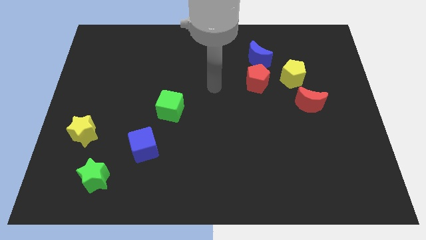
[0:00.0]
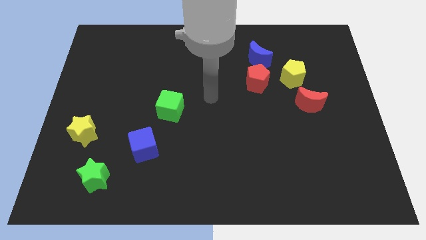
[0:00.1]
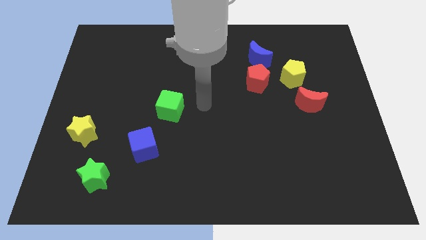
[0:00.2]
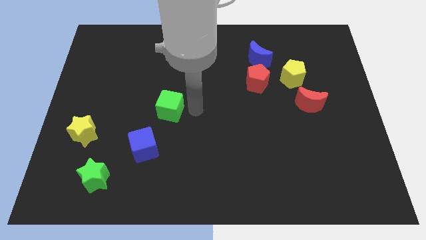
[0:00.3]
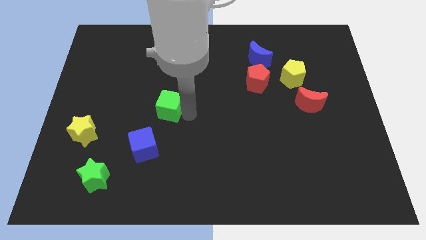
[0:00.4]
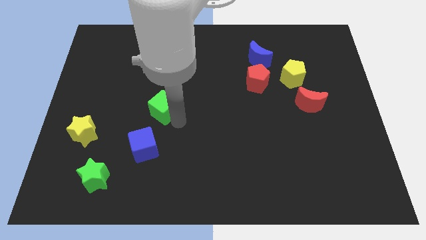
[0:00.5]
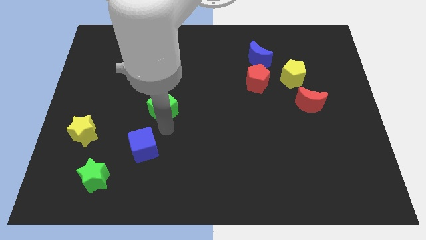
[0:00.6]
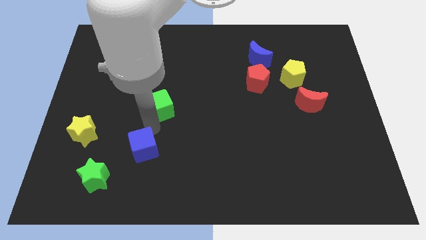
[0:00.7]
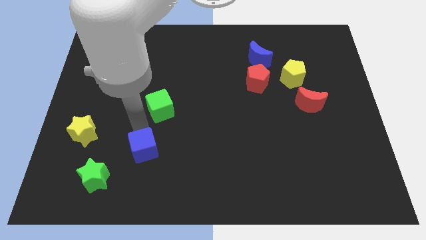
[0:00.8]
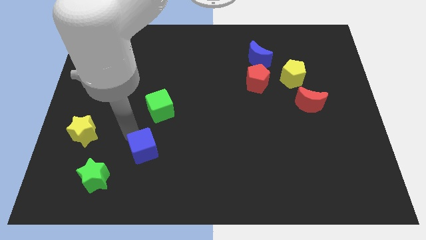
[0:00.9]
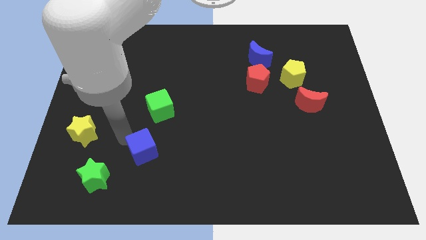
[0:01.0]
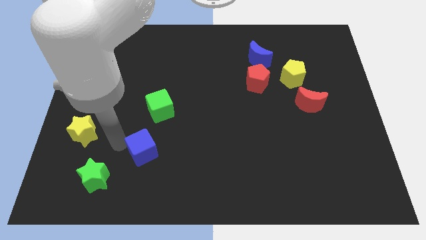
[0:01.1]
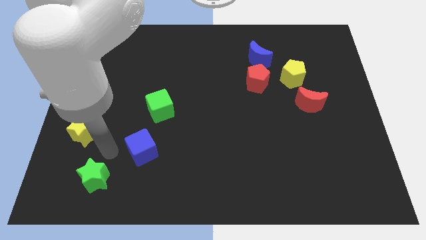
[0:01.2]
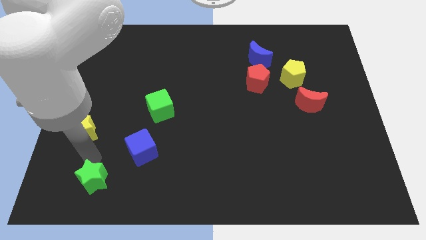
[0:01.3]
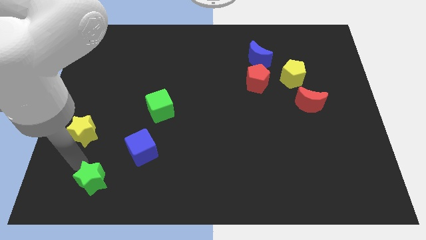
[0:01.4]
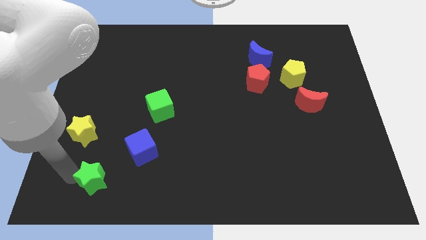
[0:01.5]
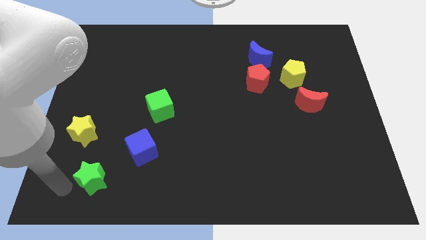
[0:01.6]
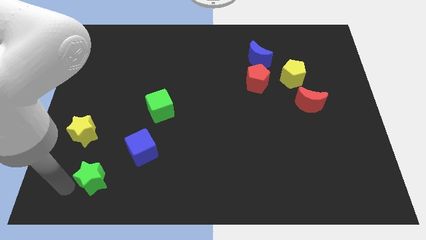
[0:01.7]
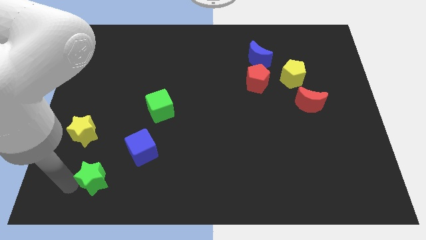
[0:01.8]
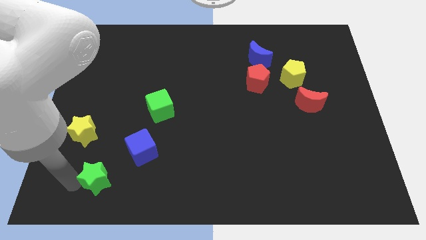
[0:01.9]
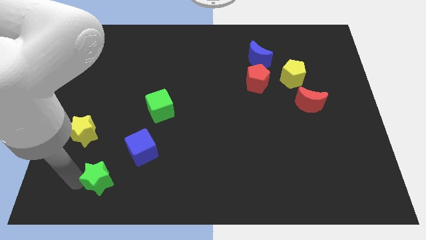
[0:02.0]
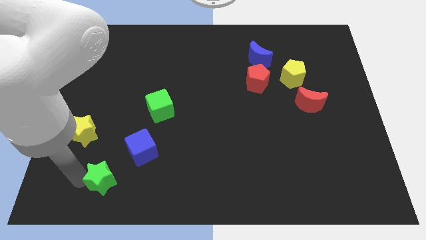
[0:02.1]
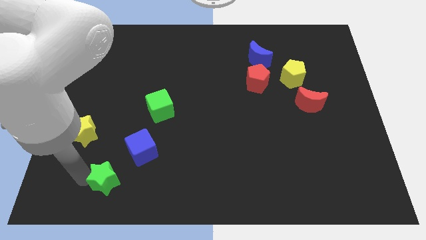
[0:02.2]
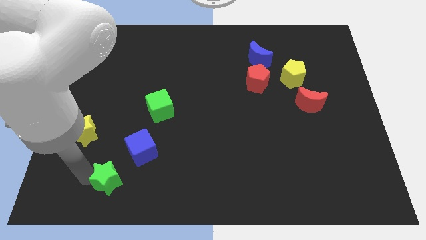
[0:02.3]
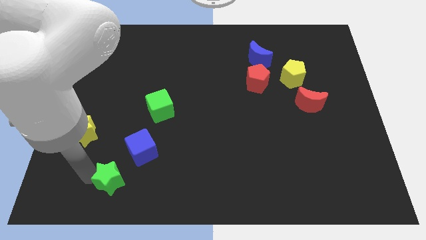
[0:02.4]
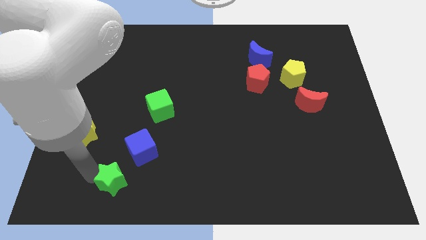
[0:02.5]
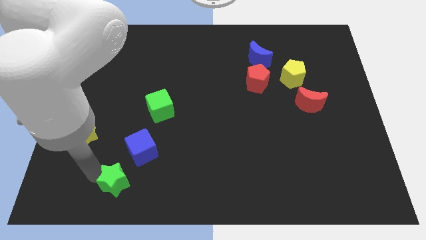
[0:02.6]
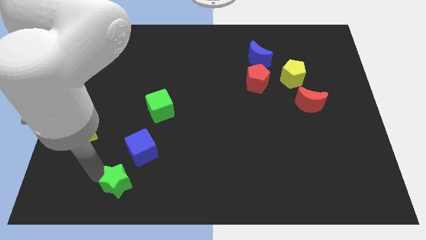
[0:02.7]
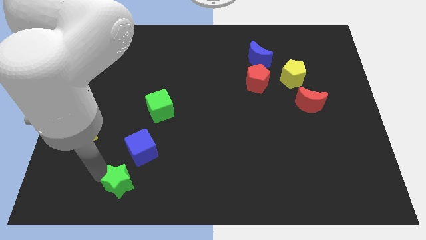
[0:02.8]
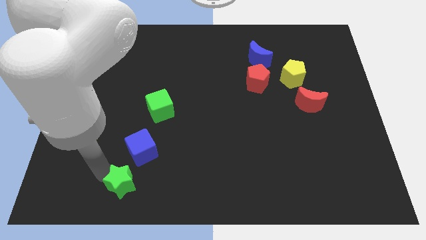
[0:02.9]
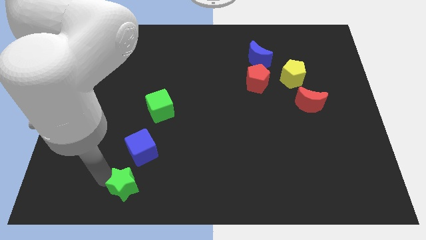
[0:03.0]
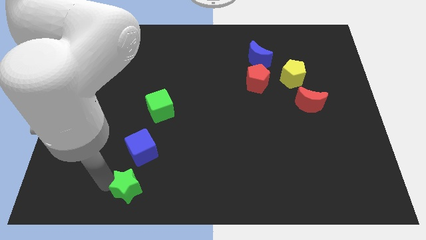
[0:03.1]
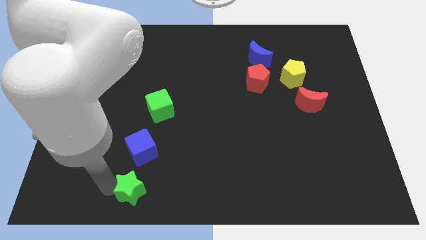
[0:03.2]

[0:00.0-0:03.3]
slightly push the green star to the right

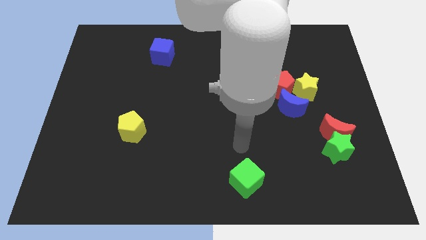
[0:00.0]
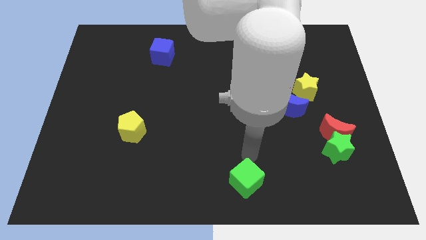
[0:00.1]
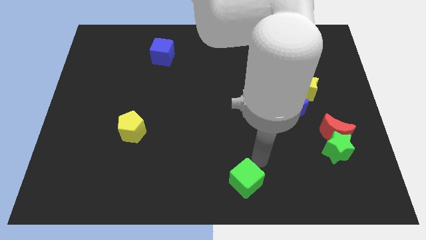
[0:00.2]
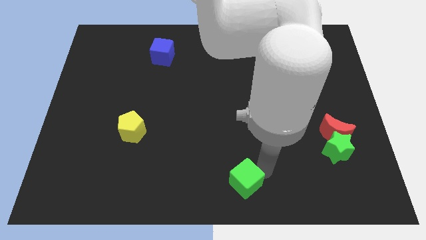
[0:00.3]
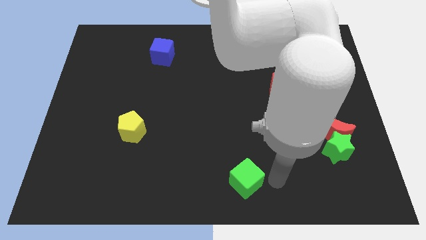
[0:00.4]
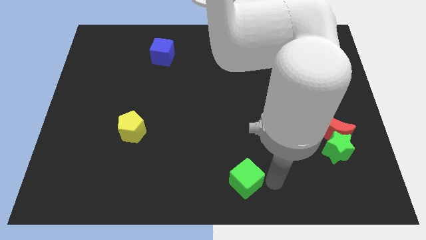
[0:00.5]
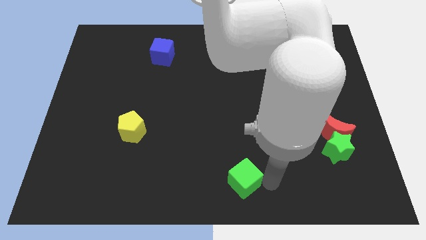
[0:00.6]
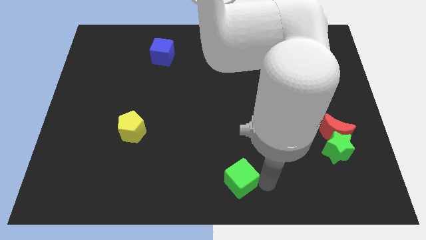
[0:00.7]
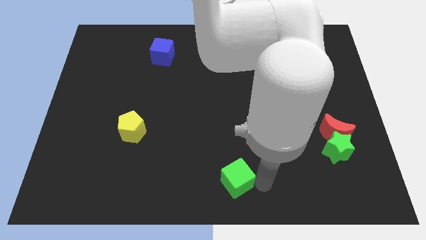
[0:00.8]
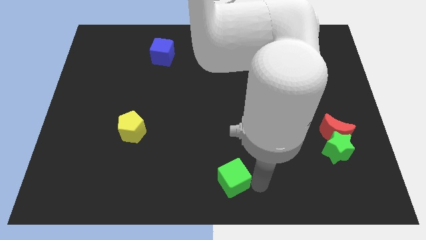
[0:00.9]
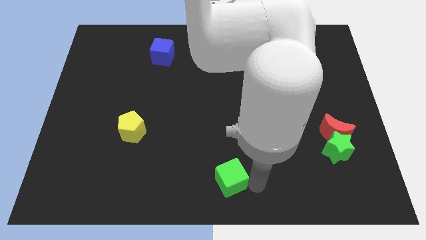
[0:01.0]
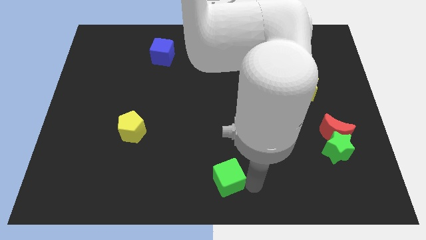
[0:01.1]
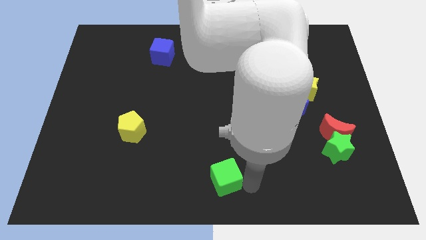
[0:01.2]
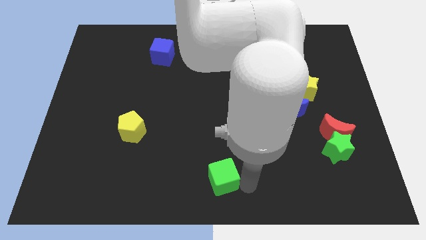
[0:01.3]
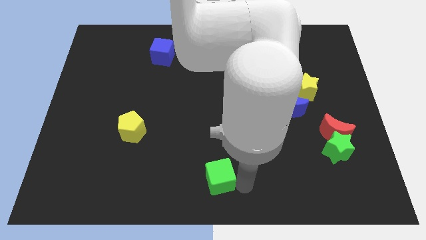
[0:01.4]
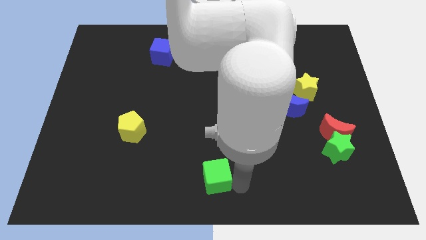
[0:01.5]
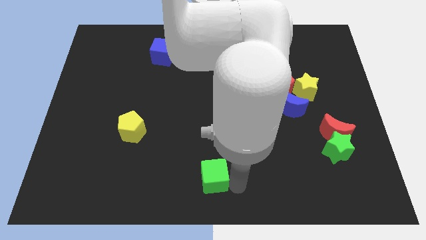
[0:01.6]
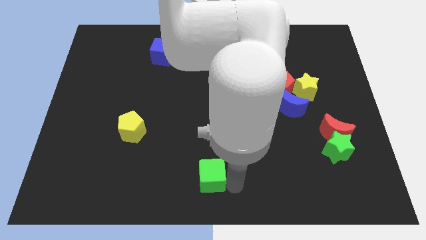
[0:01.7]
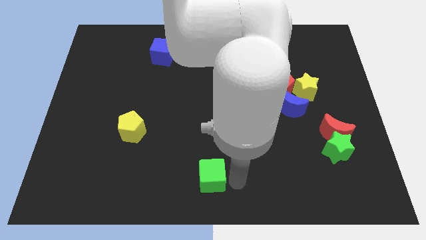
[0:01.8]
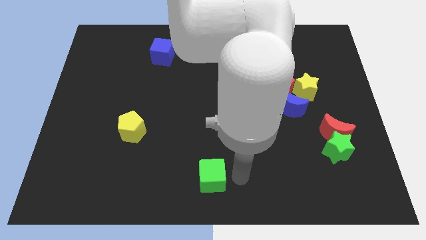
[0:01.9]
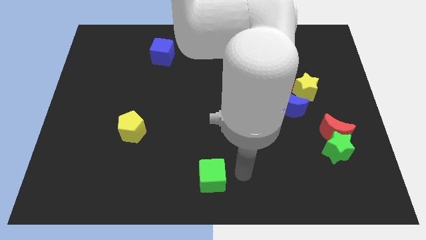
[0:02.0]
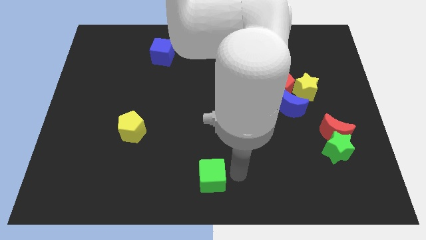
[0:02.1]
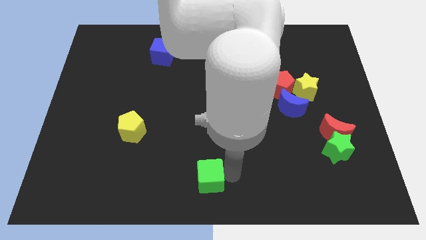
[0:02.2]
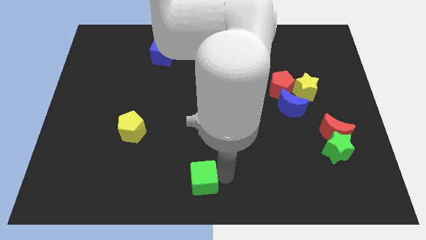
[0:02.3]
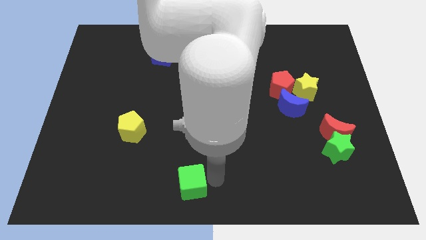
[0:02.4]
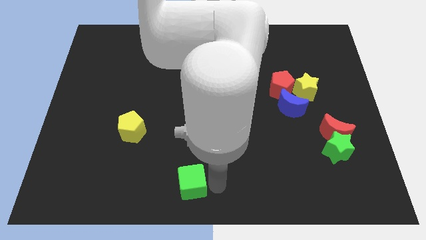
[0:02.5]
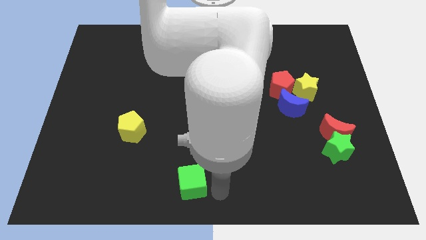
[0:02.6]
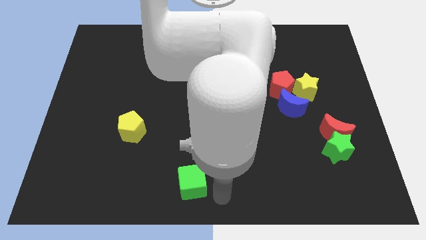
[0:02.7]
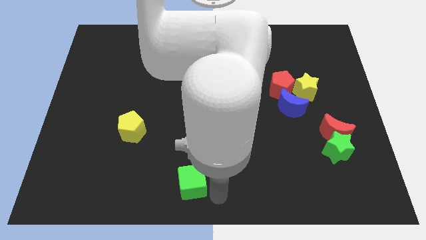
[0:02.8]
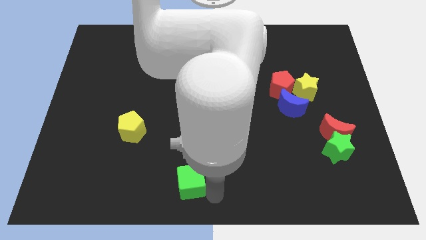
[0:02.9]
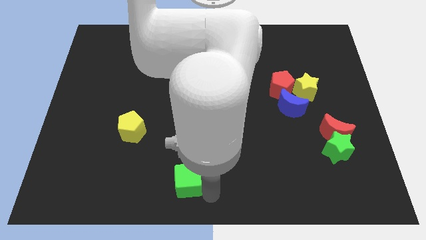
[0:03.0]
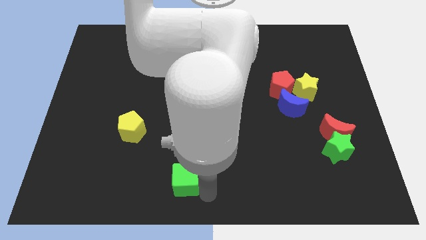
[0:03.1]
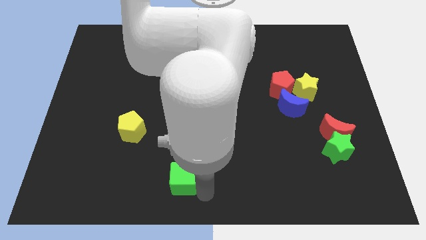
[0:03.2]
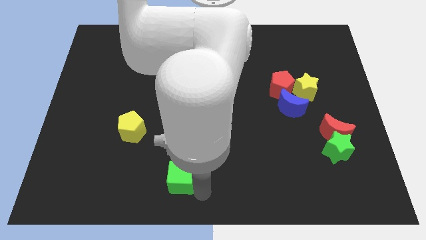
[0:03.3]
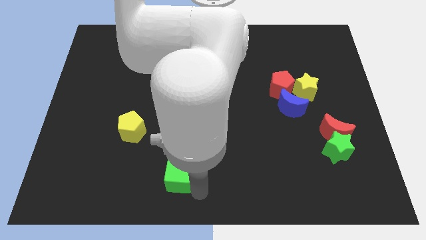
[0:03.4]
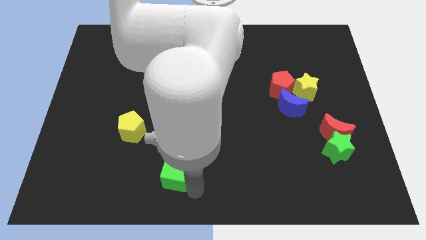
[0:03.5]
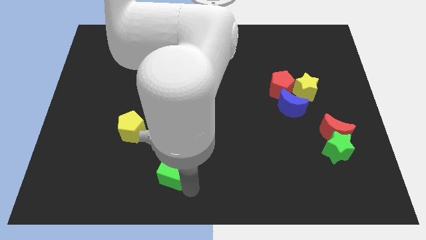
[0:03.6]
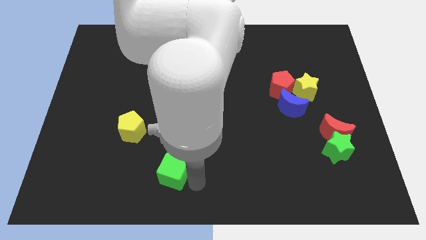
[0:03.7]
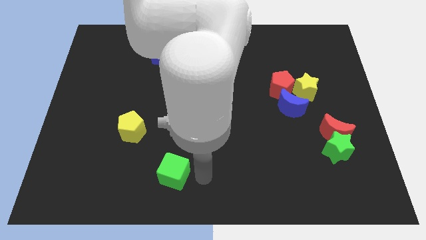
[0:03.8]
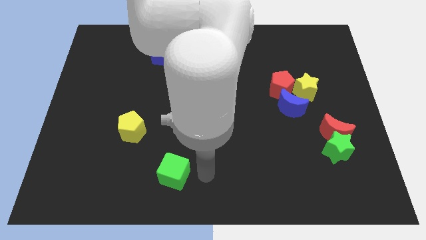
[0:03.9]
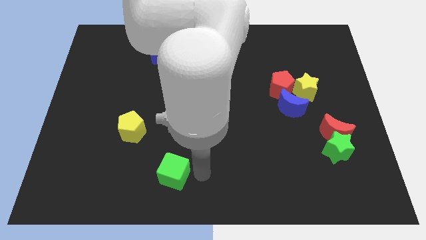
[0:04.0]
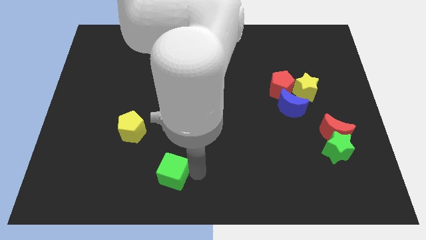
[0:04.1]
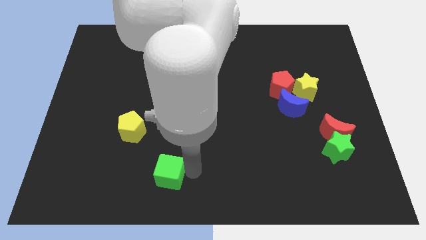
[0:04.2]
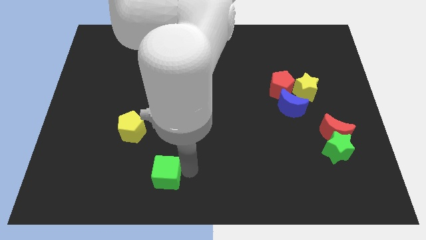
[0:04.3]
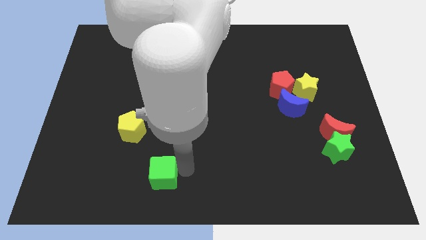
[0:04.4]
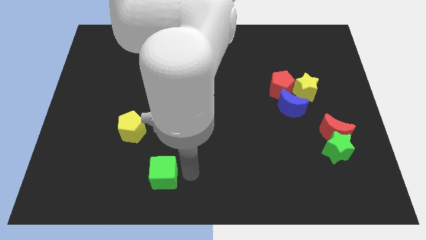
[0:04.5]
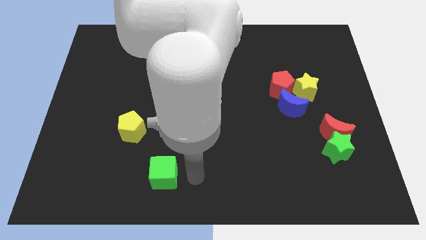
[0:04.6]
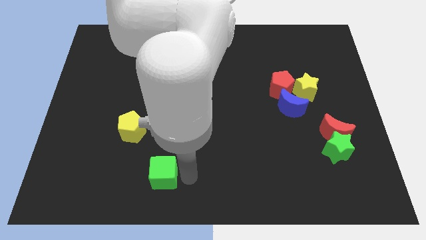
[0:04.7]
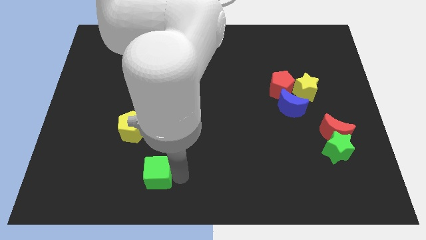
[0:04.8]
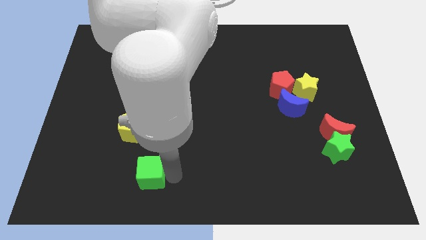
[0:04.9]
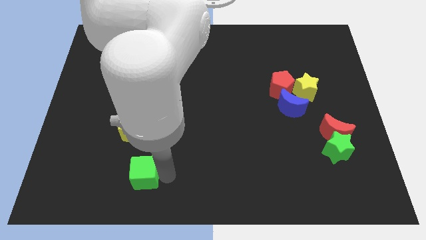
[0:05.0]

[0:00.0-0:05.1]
move the green cube to the left
